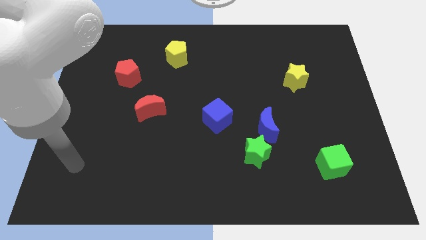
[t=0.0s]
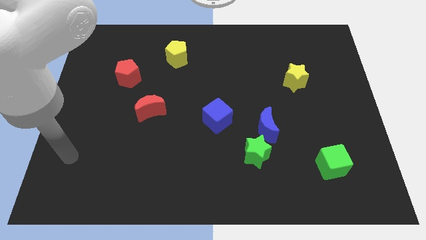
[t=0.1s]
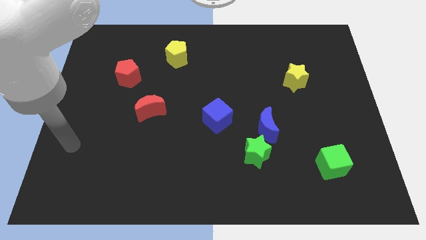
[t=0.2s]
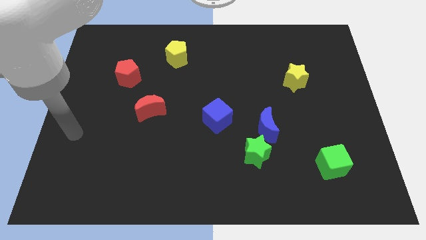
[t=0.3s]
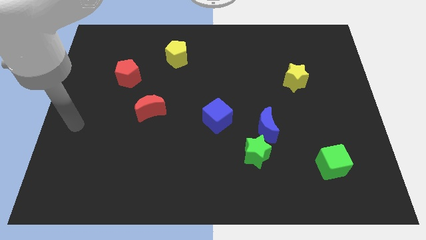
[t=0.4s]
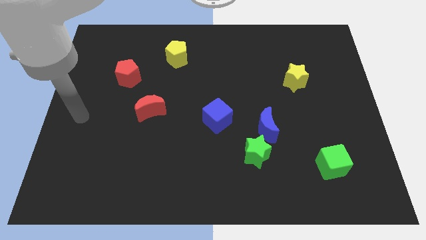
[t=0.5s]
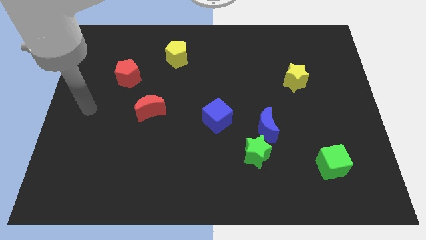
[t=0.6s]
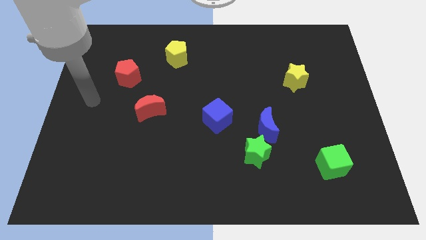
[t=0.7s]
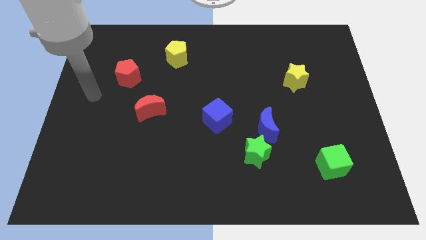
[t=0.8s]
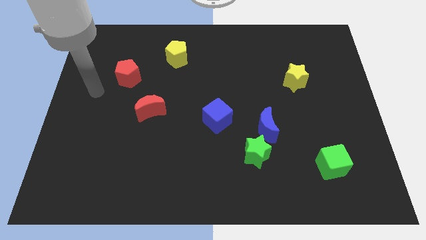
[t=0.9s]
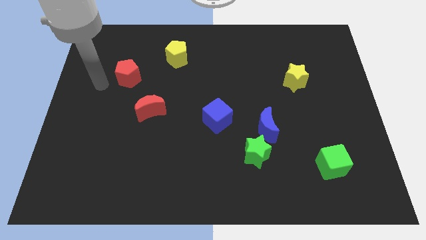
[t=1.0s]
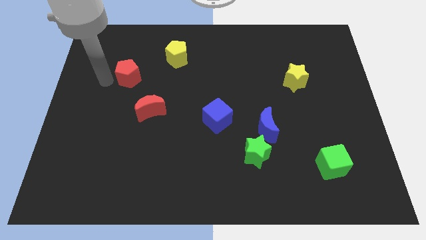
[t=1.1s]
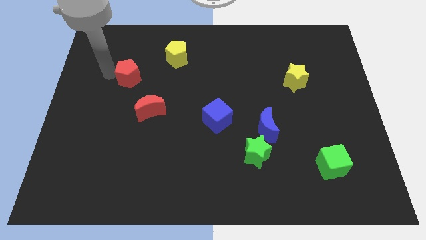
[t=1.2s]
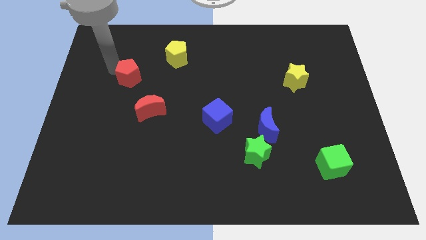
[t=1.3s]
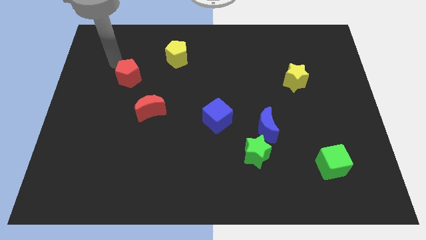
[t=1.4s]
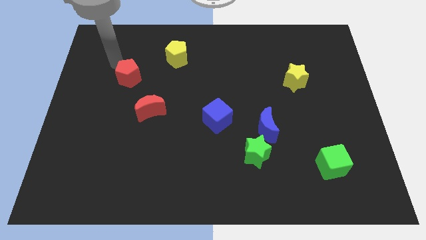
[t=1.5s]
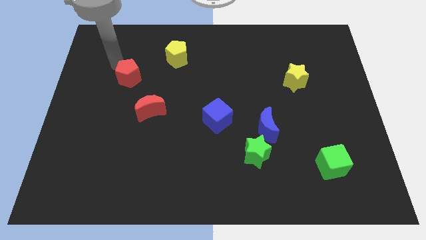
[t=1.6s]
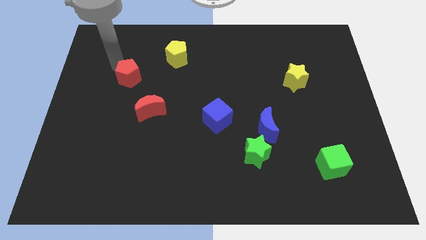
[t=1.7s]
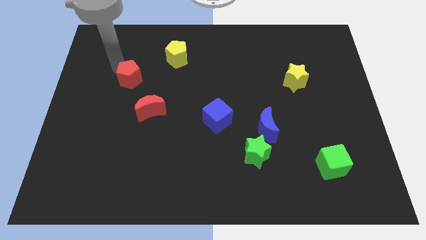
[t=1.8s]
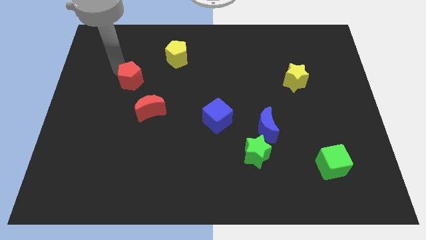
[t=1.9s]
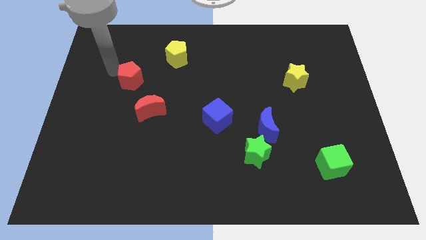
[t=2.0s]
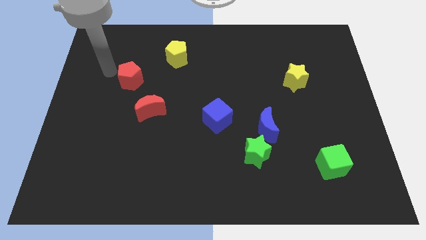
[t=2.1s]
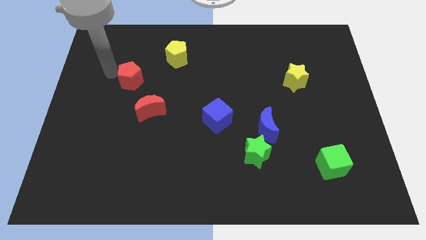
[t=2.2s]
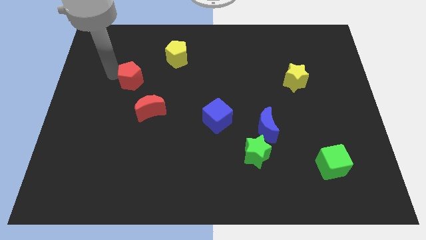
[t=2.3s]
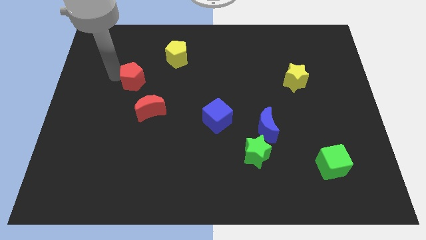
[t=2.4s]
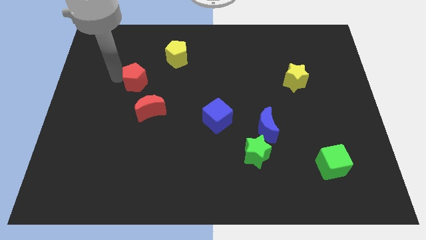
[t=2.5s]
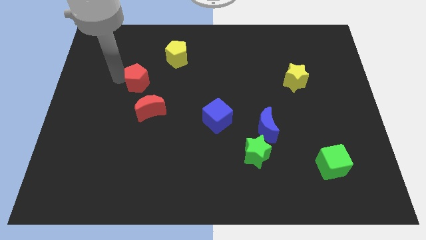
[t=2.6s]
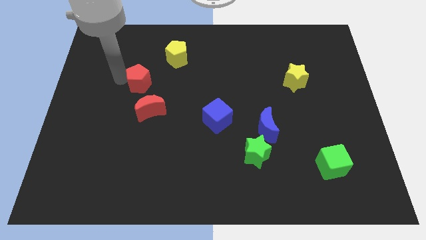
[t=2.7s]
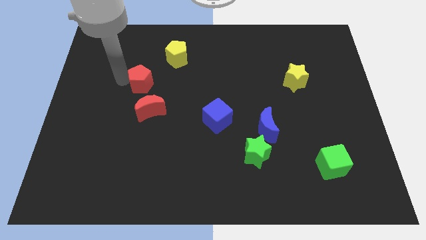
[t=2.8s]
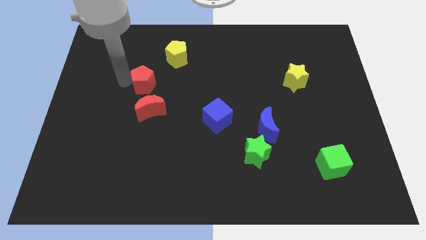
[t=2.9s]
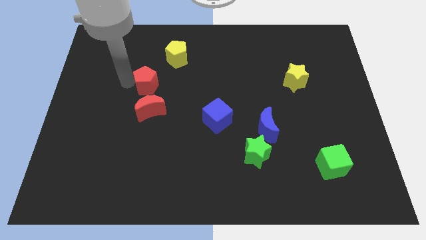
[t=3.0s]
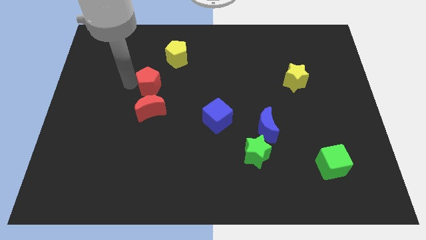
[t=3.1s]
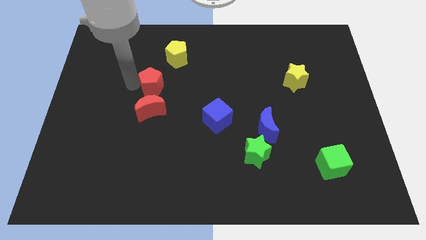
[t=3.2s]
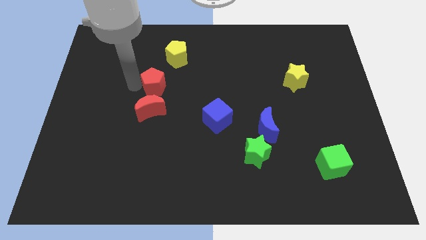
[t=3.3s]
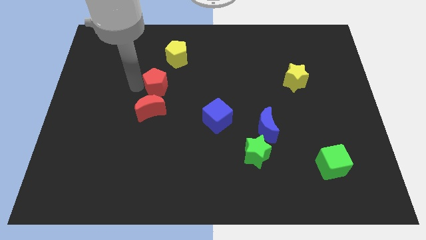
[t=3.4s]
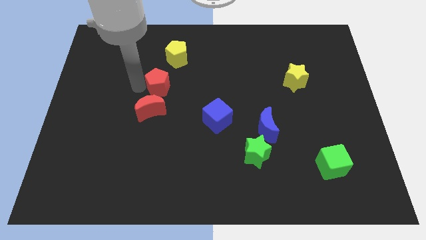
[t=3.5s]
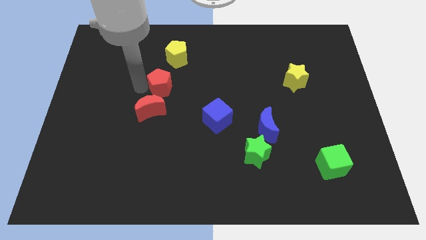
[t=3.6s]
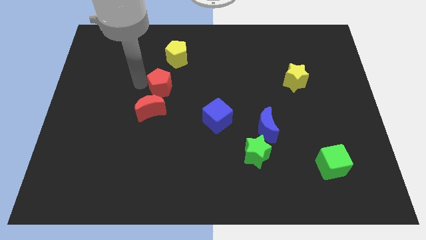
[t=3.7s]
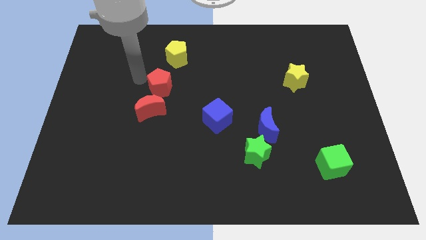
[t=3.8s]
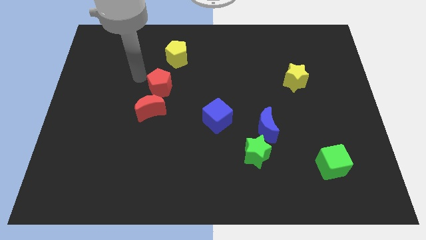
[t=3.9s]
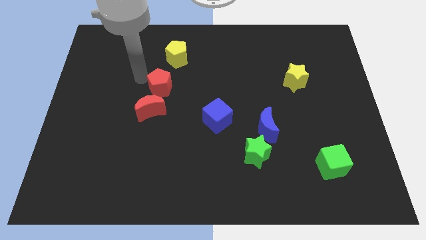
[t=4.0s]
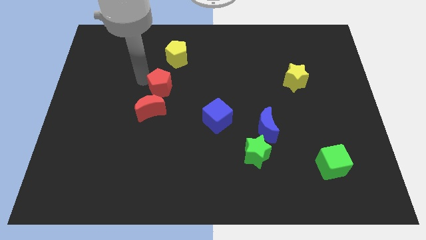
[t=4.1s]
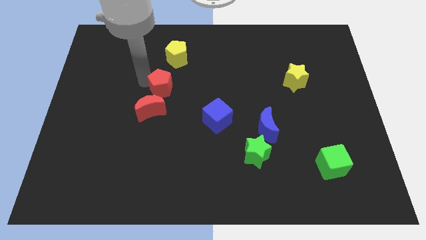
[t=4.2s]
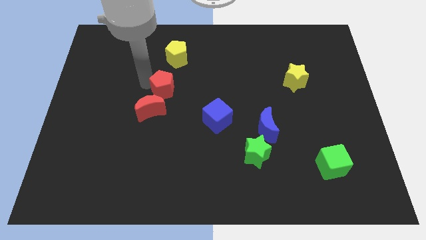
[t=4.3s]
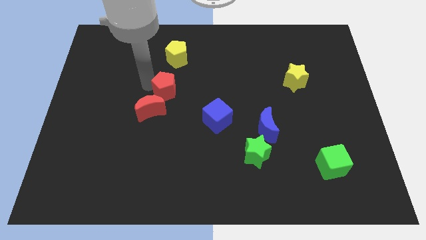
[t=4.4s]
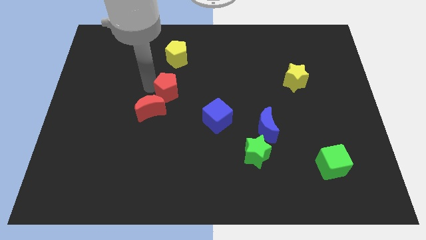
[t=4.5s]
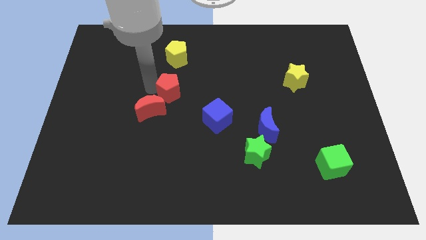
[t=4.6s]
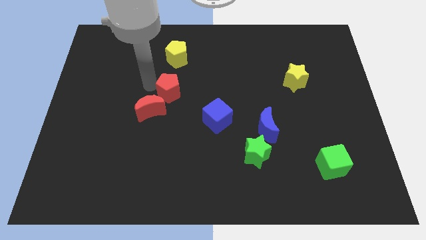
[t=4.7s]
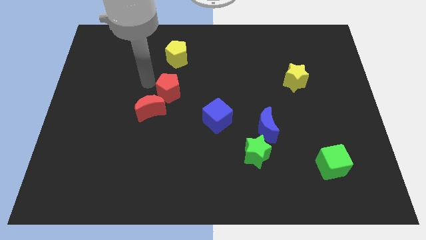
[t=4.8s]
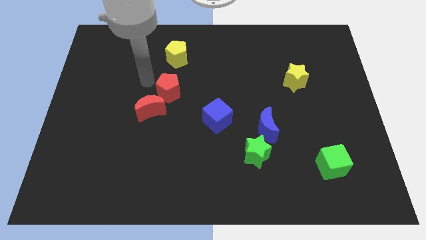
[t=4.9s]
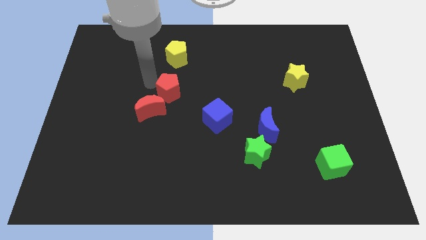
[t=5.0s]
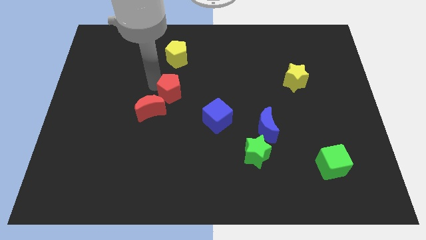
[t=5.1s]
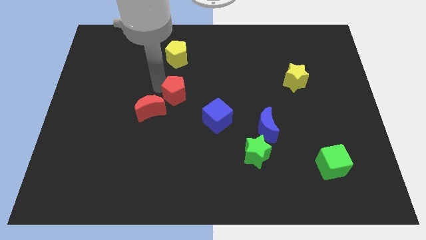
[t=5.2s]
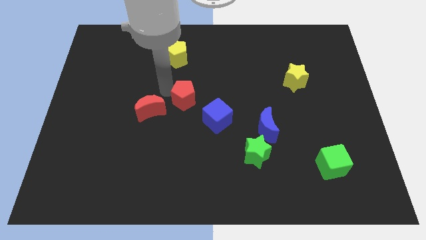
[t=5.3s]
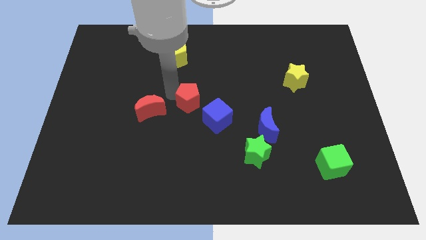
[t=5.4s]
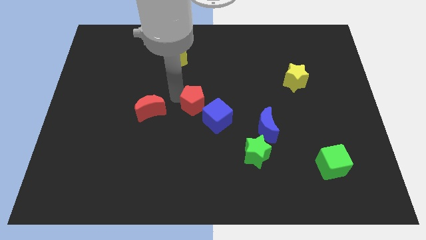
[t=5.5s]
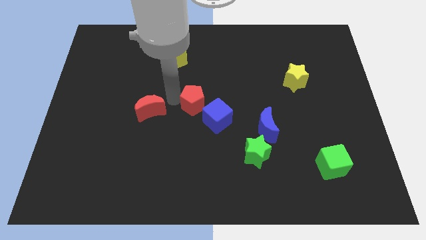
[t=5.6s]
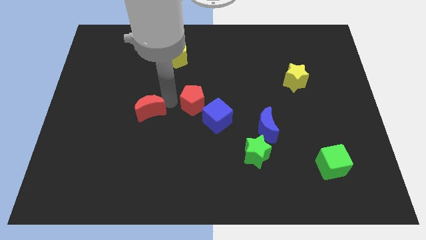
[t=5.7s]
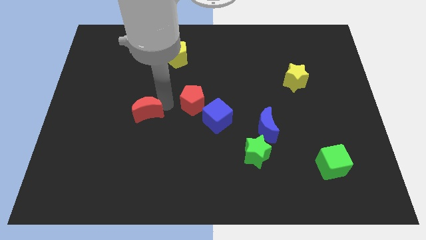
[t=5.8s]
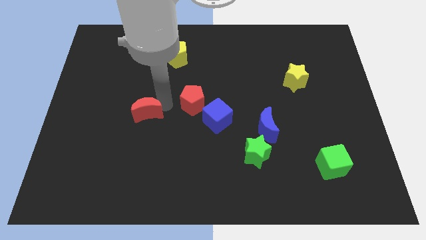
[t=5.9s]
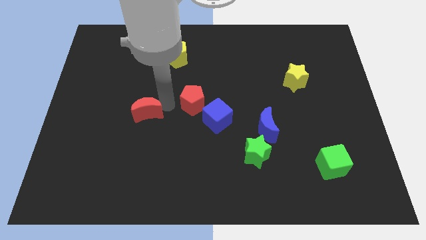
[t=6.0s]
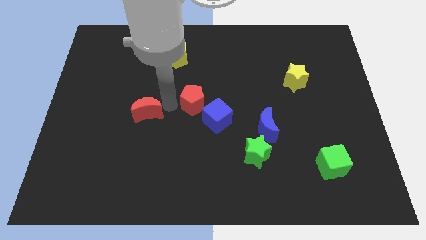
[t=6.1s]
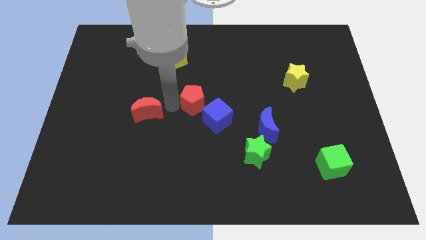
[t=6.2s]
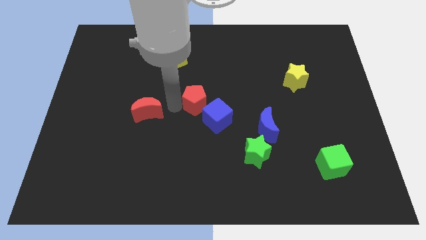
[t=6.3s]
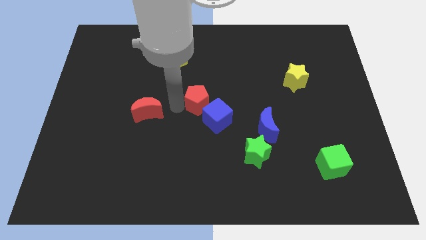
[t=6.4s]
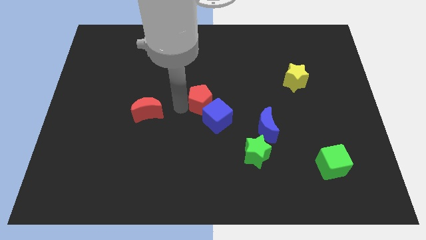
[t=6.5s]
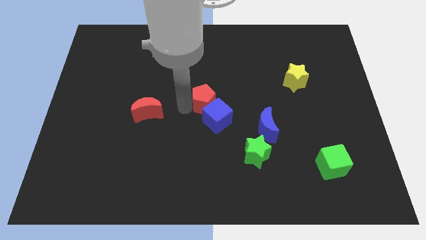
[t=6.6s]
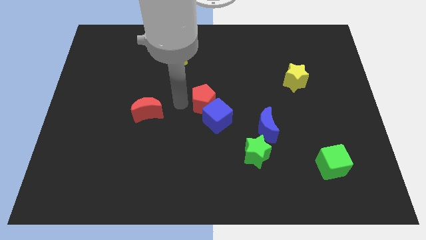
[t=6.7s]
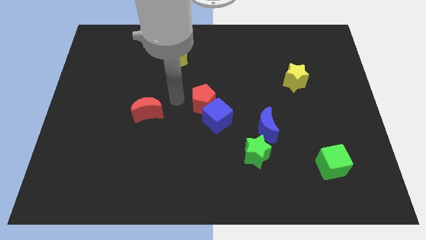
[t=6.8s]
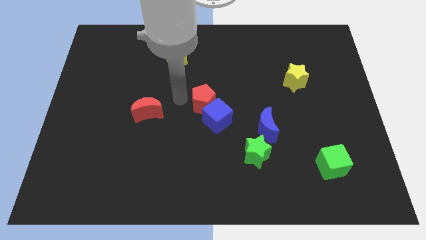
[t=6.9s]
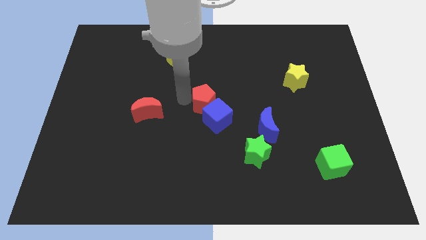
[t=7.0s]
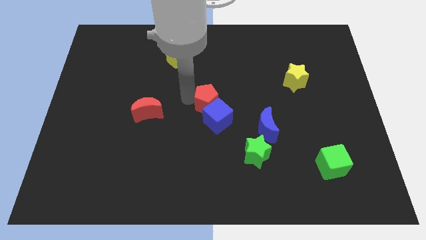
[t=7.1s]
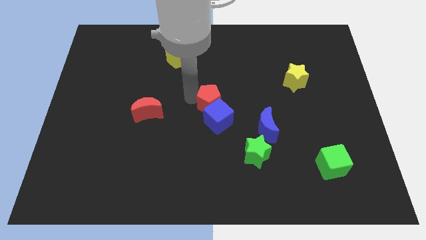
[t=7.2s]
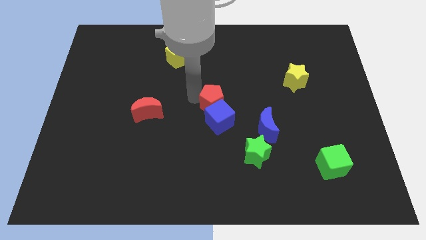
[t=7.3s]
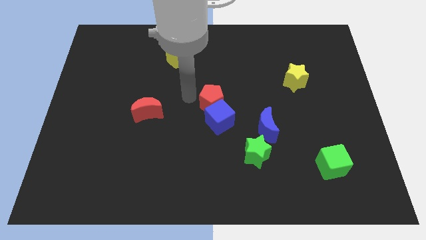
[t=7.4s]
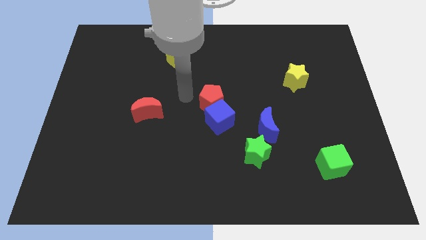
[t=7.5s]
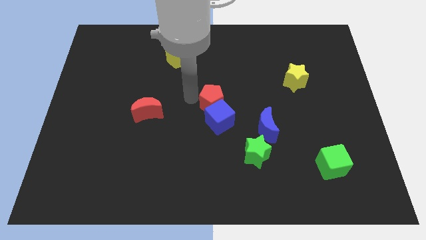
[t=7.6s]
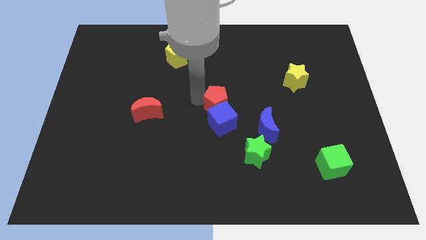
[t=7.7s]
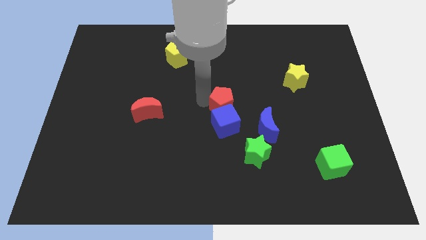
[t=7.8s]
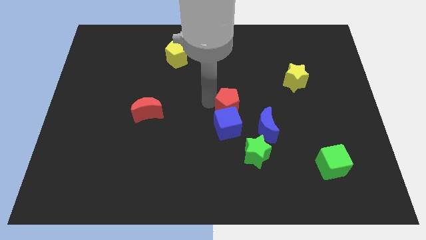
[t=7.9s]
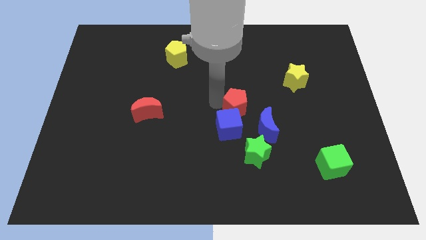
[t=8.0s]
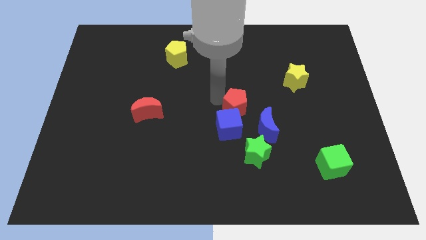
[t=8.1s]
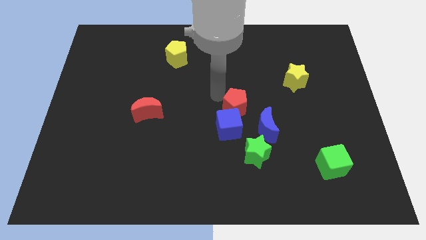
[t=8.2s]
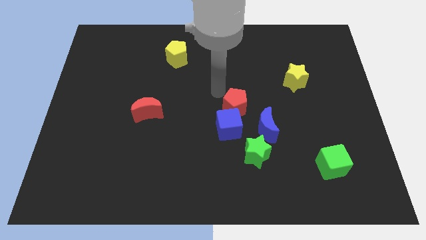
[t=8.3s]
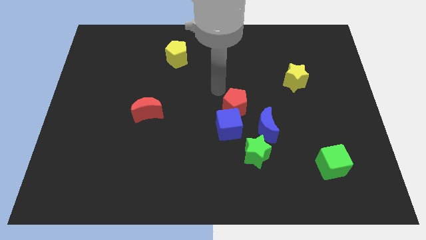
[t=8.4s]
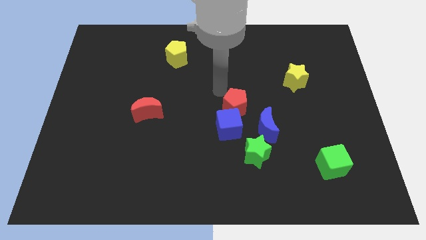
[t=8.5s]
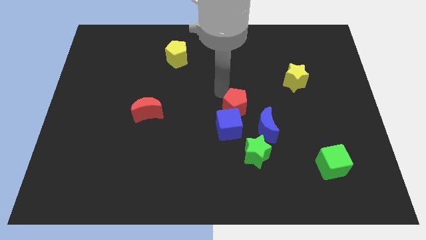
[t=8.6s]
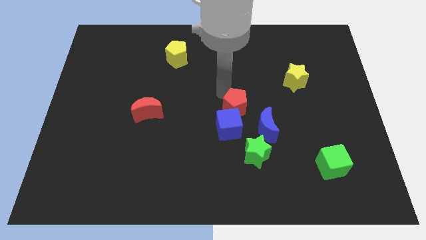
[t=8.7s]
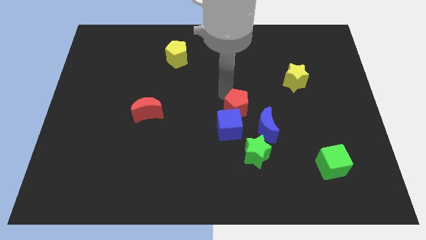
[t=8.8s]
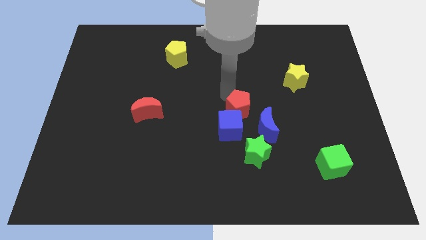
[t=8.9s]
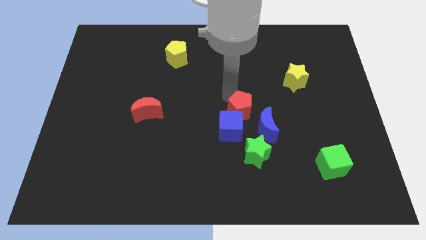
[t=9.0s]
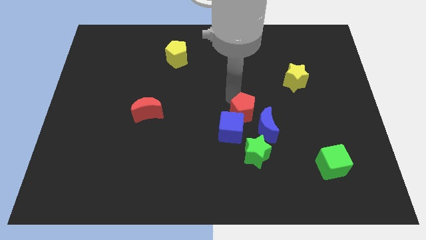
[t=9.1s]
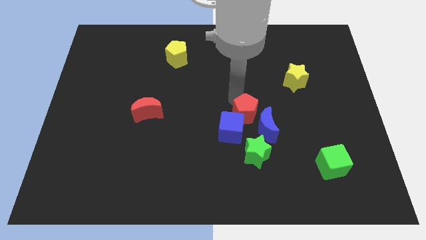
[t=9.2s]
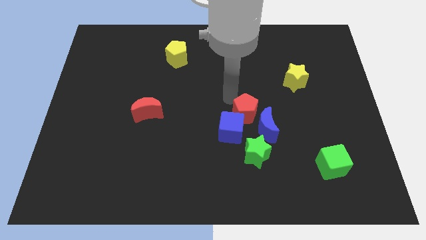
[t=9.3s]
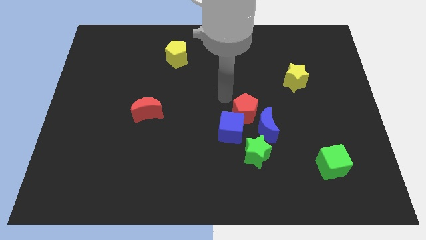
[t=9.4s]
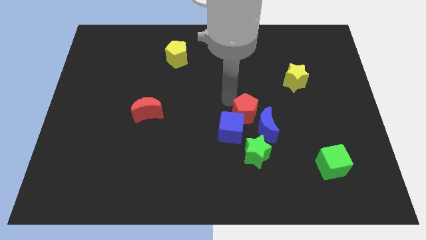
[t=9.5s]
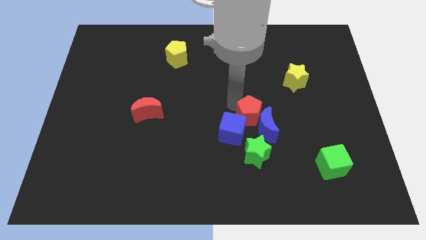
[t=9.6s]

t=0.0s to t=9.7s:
slide the red pentagon towards the blue moon
